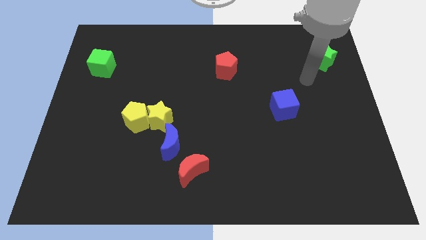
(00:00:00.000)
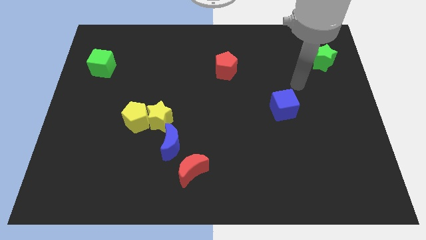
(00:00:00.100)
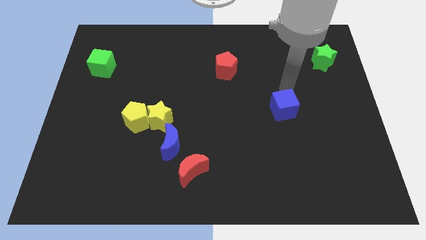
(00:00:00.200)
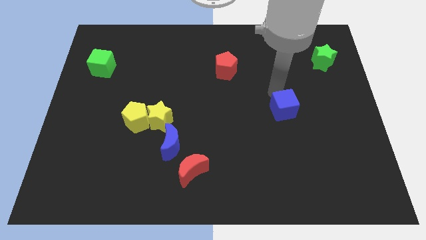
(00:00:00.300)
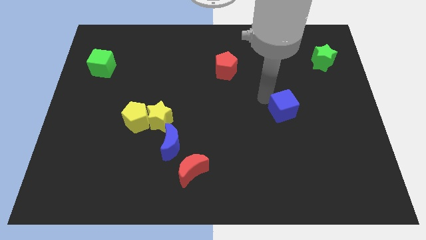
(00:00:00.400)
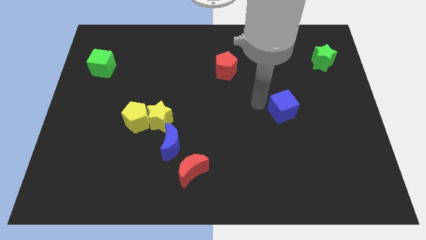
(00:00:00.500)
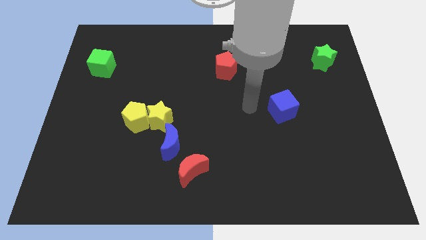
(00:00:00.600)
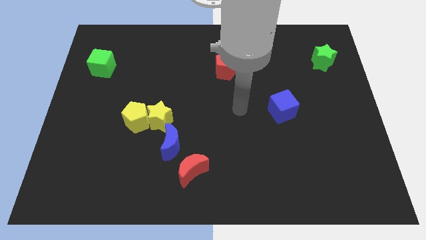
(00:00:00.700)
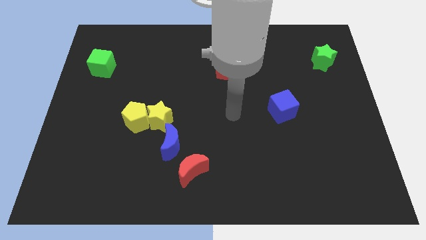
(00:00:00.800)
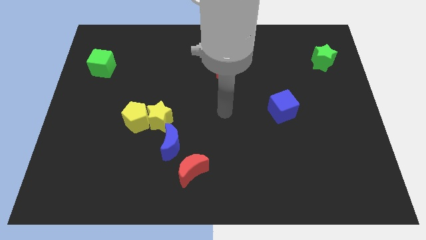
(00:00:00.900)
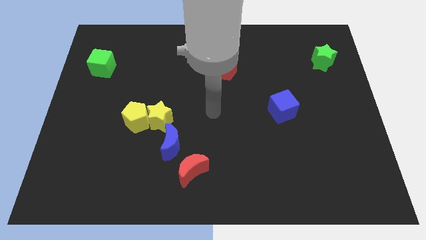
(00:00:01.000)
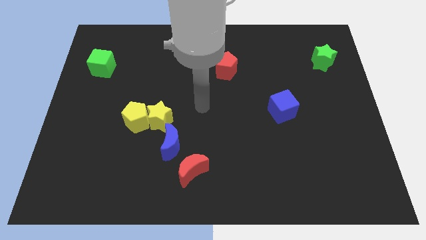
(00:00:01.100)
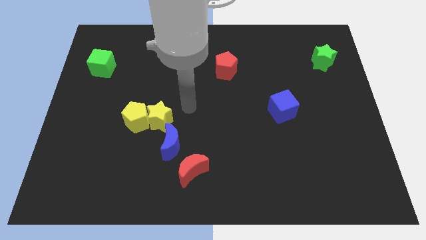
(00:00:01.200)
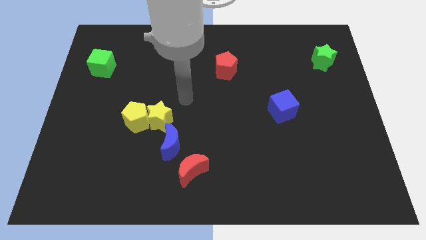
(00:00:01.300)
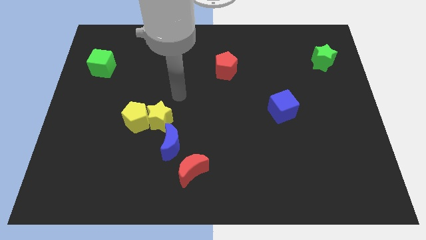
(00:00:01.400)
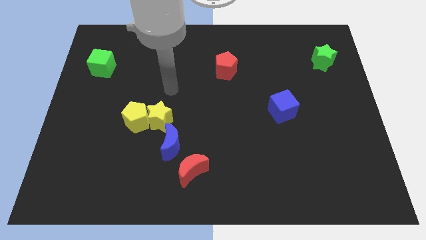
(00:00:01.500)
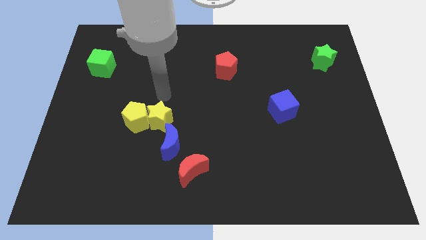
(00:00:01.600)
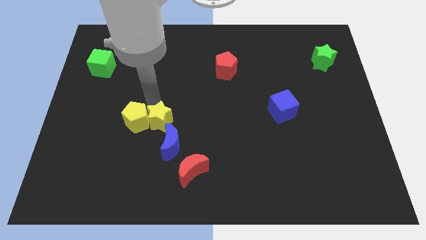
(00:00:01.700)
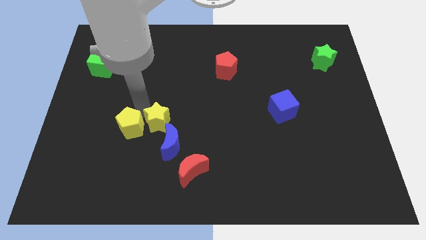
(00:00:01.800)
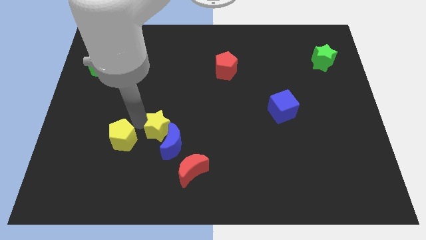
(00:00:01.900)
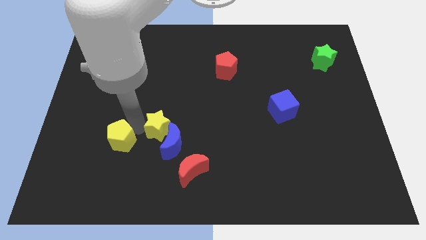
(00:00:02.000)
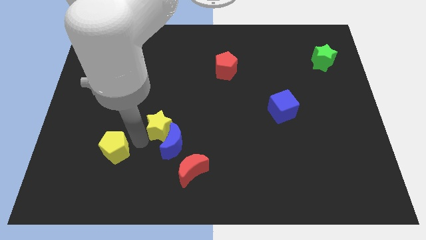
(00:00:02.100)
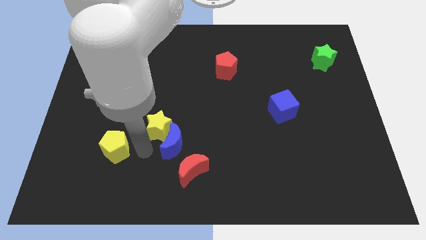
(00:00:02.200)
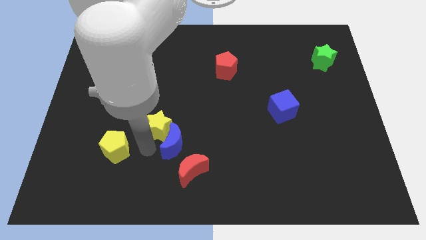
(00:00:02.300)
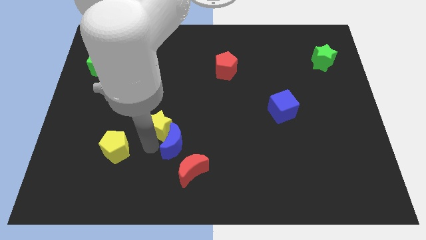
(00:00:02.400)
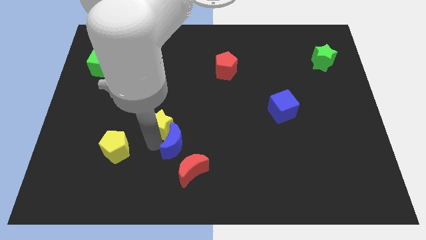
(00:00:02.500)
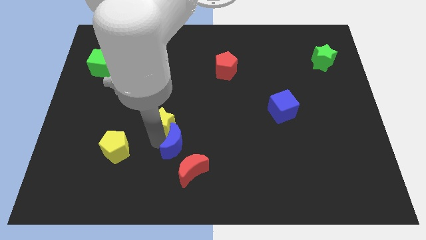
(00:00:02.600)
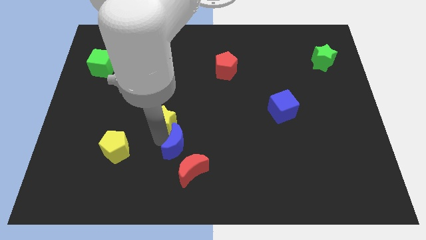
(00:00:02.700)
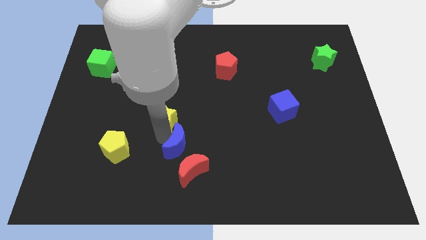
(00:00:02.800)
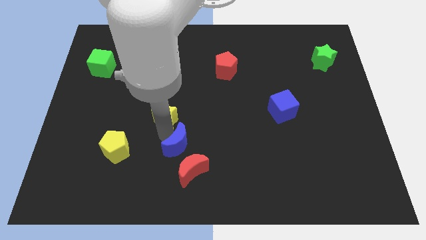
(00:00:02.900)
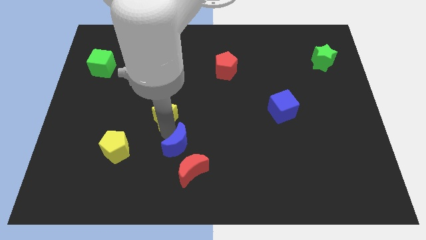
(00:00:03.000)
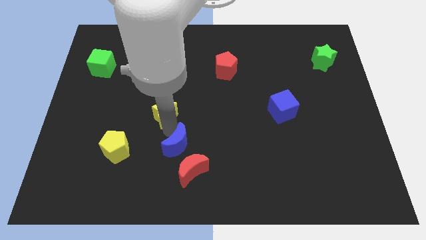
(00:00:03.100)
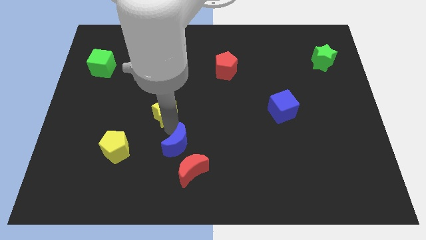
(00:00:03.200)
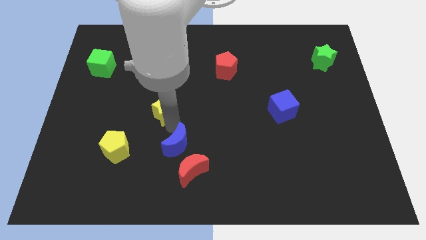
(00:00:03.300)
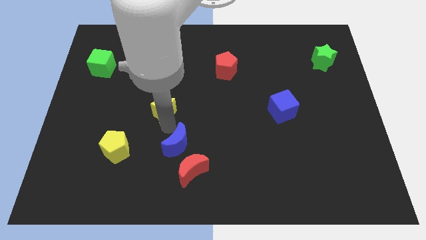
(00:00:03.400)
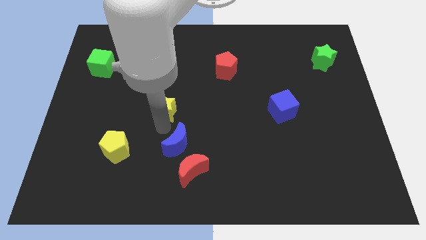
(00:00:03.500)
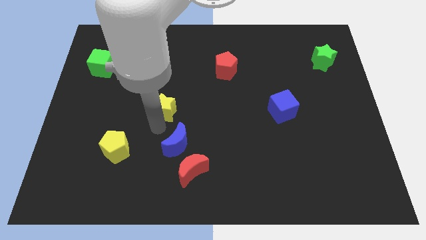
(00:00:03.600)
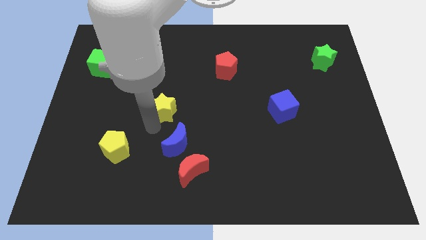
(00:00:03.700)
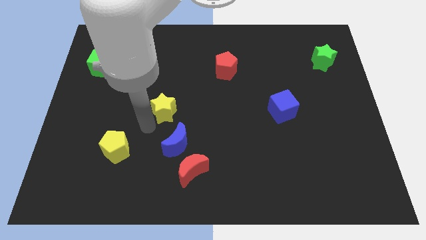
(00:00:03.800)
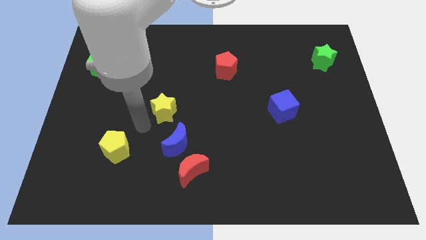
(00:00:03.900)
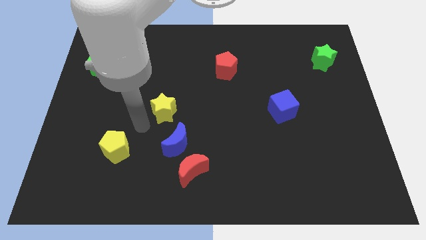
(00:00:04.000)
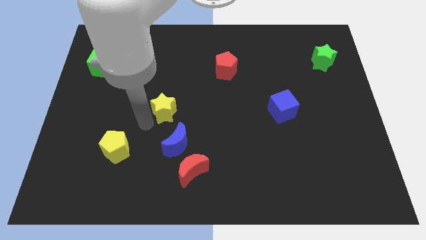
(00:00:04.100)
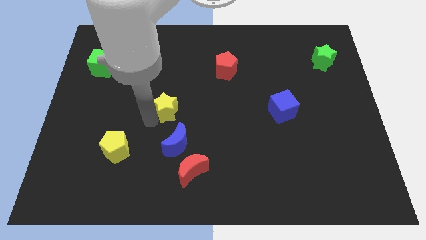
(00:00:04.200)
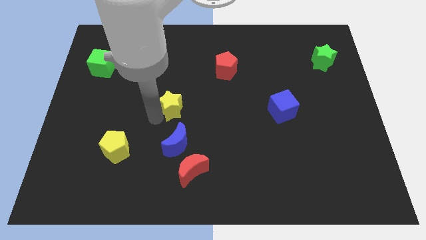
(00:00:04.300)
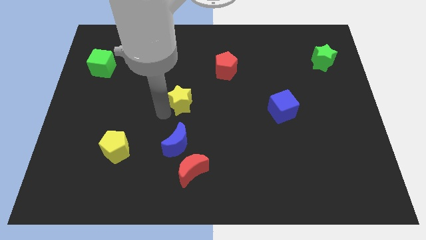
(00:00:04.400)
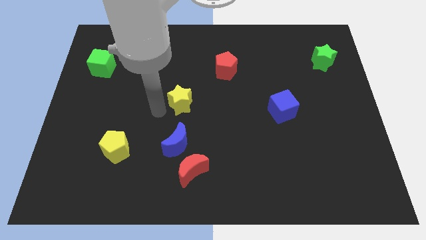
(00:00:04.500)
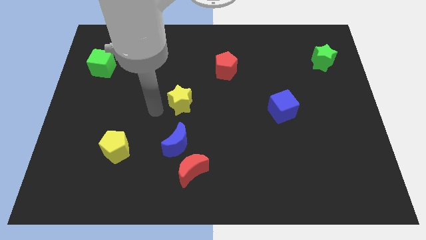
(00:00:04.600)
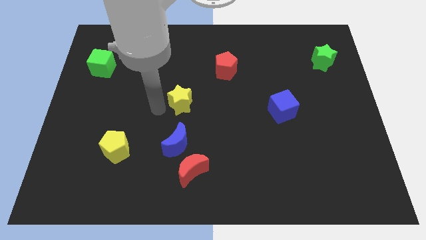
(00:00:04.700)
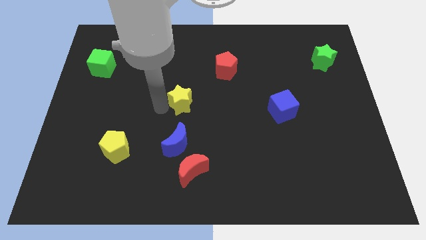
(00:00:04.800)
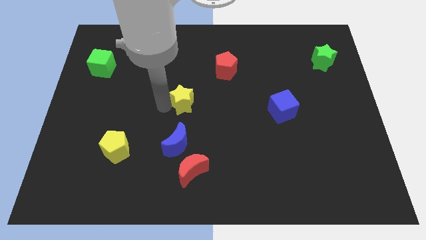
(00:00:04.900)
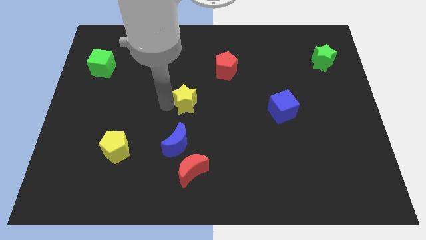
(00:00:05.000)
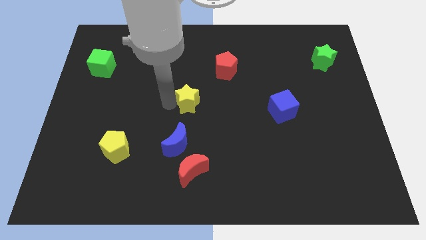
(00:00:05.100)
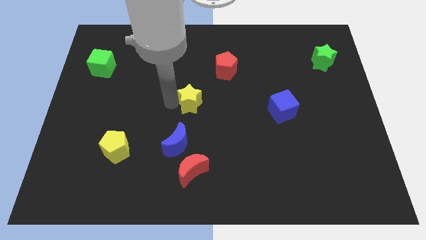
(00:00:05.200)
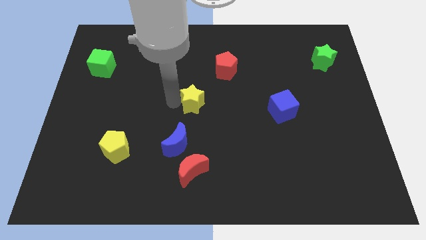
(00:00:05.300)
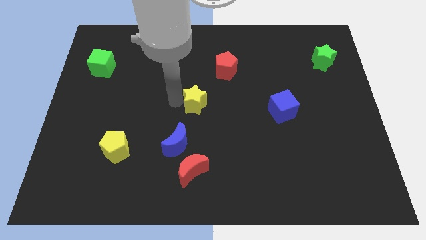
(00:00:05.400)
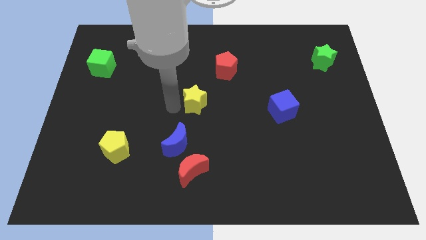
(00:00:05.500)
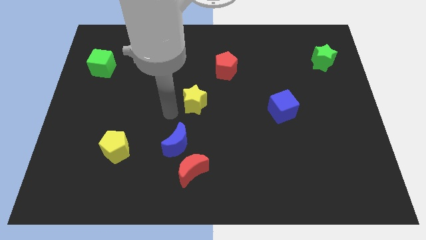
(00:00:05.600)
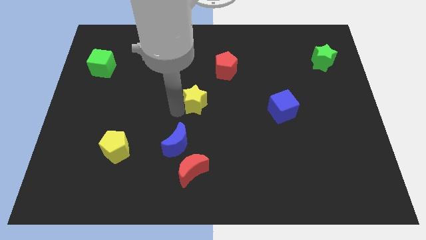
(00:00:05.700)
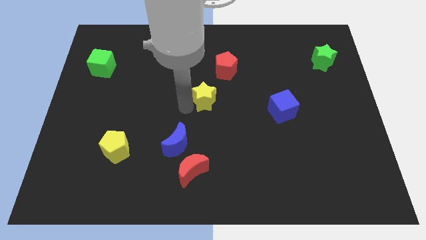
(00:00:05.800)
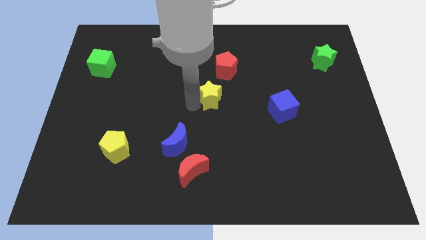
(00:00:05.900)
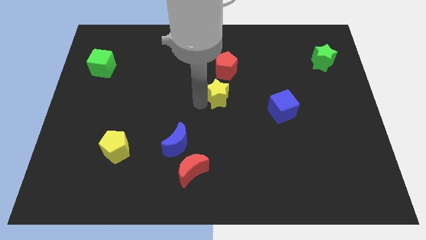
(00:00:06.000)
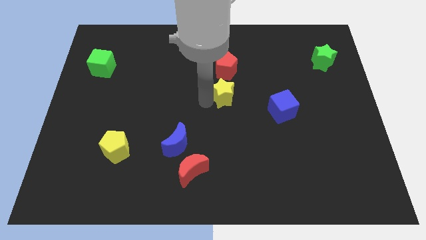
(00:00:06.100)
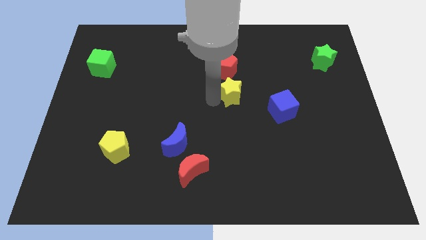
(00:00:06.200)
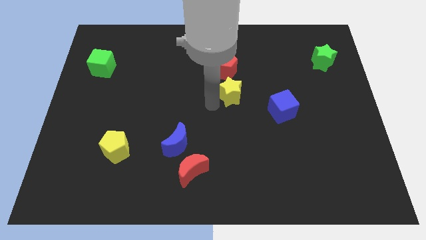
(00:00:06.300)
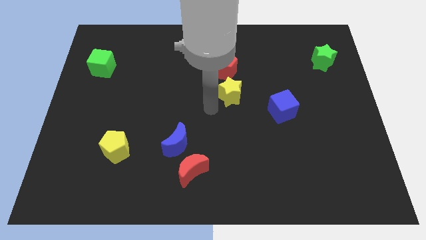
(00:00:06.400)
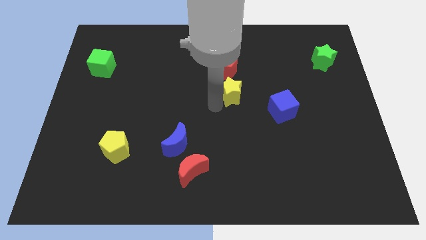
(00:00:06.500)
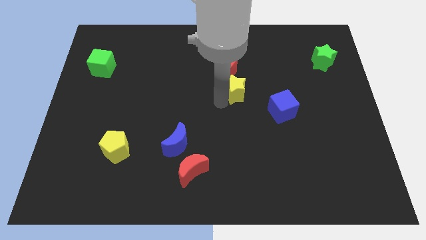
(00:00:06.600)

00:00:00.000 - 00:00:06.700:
put the yellow star diagonally down and to the right of the red pentagon
